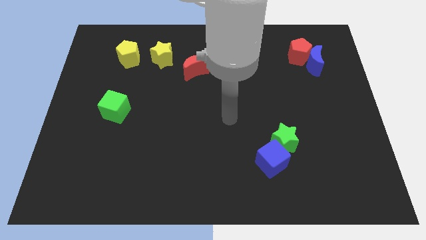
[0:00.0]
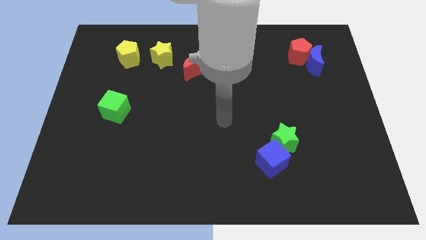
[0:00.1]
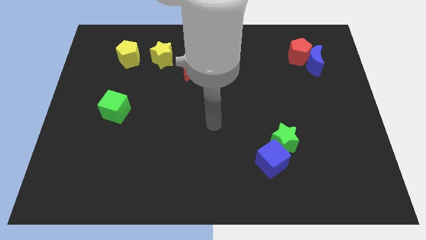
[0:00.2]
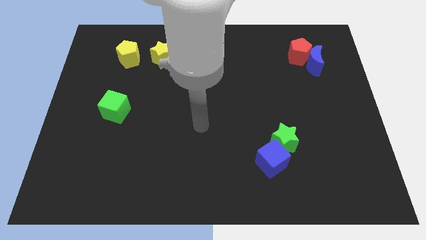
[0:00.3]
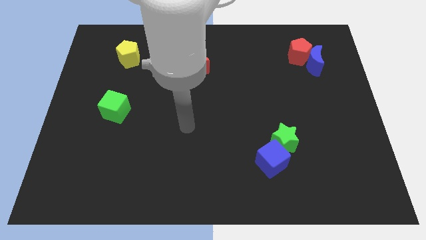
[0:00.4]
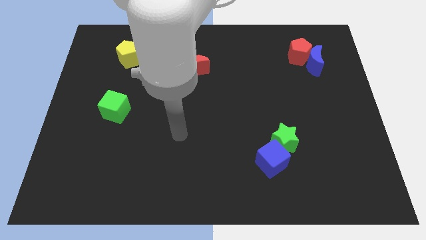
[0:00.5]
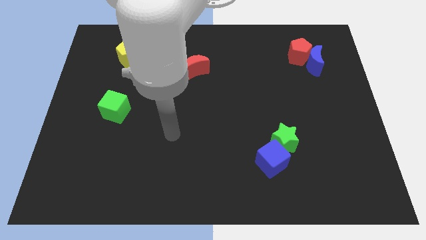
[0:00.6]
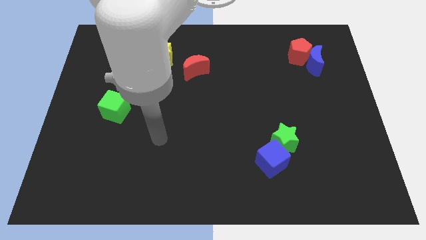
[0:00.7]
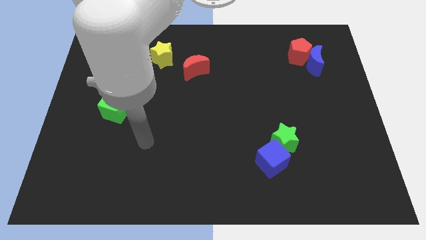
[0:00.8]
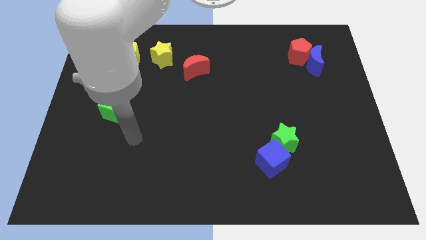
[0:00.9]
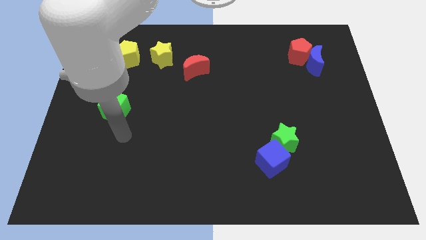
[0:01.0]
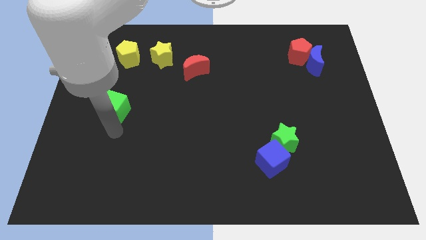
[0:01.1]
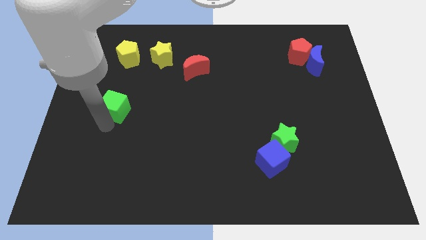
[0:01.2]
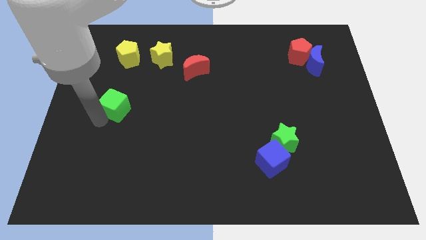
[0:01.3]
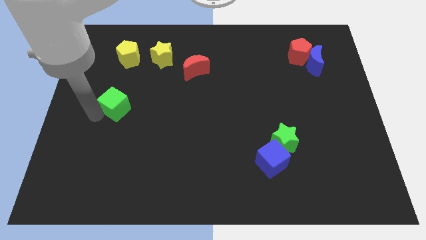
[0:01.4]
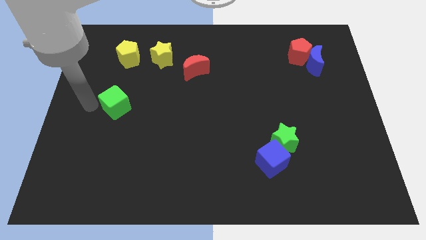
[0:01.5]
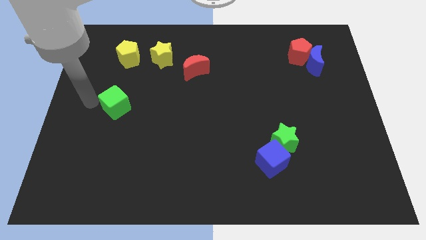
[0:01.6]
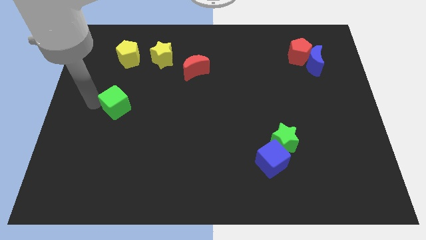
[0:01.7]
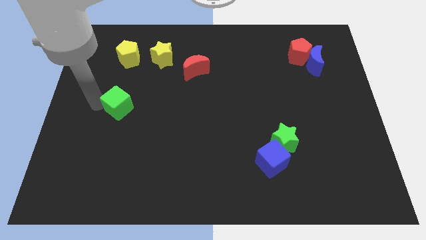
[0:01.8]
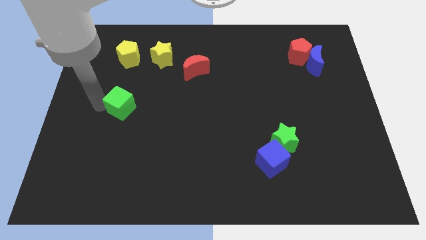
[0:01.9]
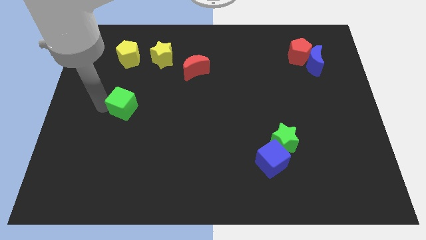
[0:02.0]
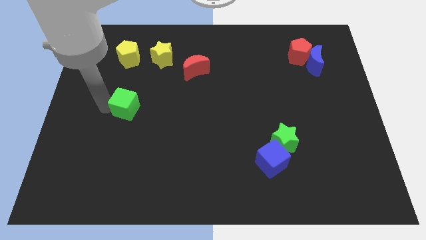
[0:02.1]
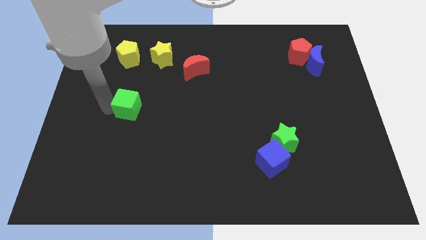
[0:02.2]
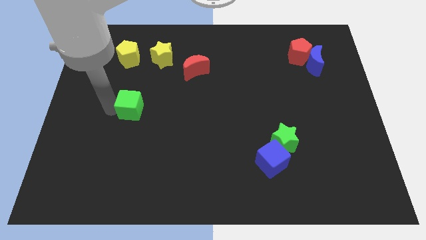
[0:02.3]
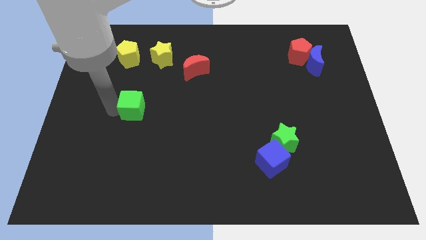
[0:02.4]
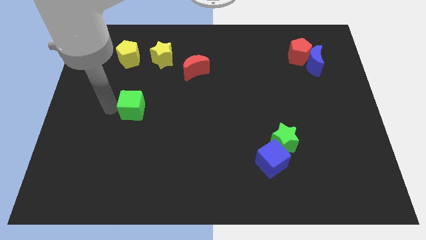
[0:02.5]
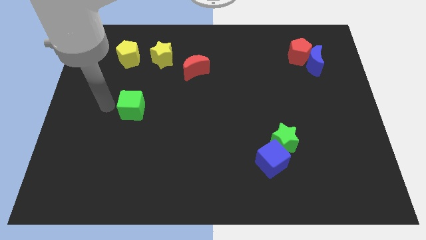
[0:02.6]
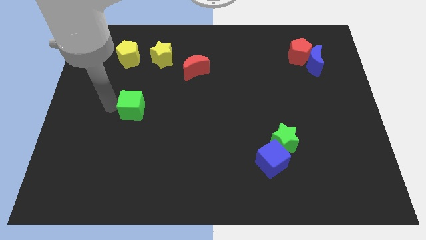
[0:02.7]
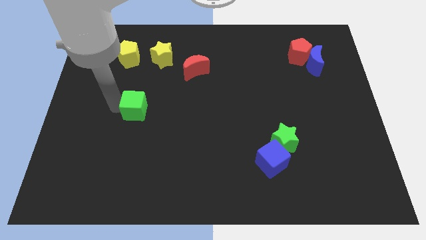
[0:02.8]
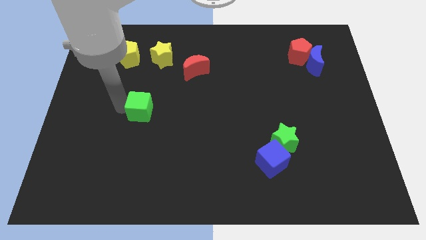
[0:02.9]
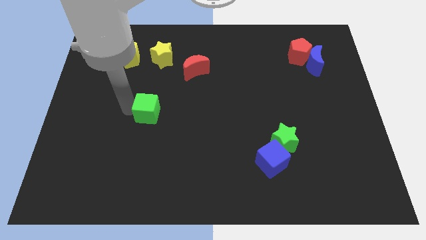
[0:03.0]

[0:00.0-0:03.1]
push the green cube a little bit to the right

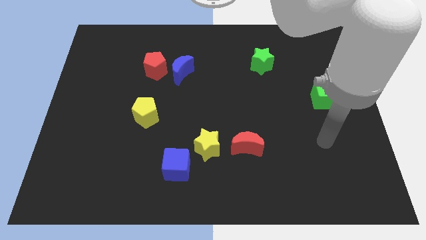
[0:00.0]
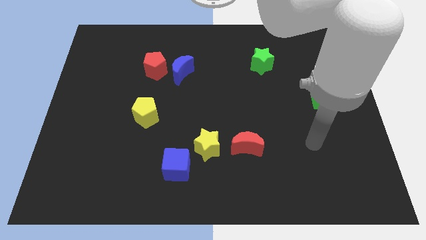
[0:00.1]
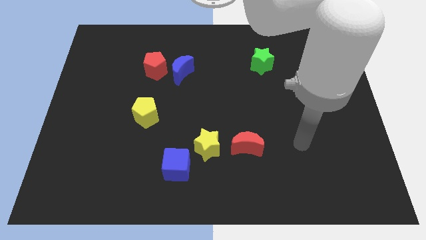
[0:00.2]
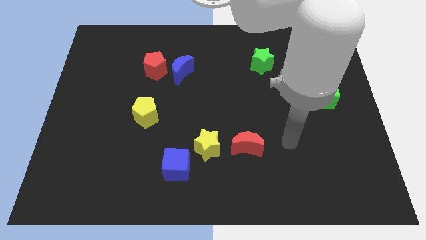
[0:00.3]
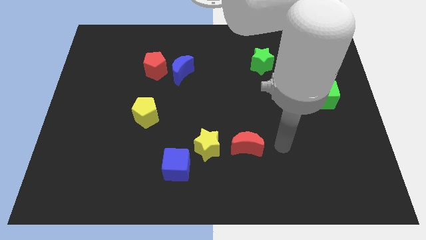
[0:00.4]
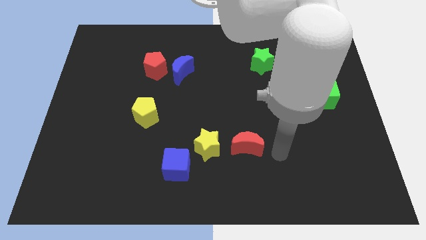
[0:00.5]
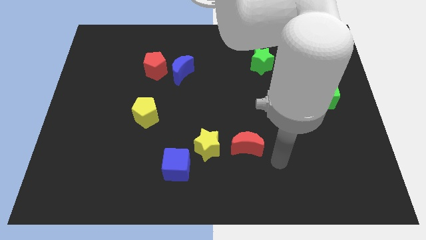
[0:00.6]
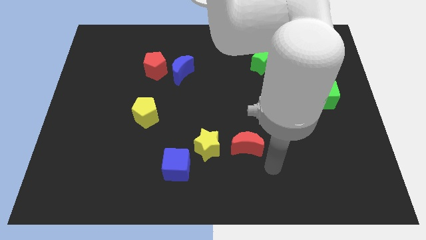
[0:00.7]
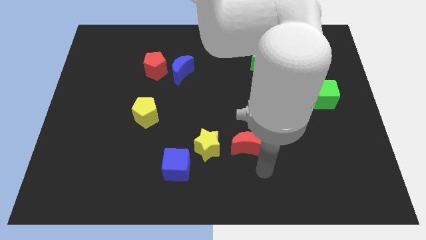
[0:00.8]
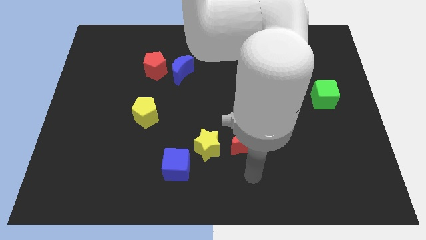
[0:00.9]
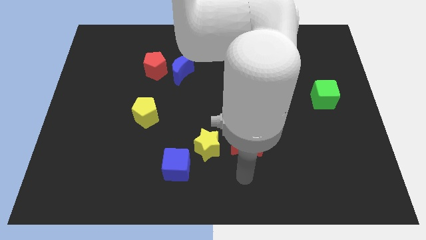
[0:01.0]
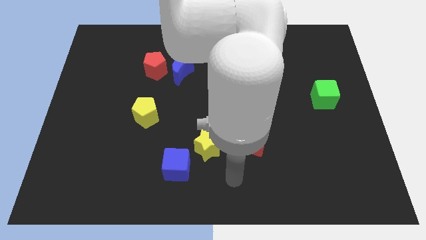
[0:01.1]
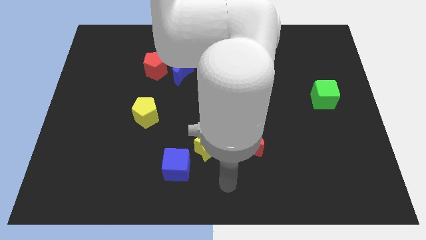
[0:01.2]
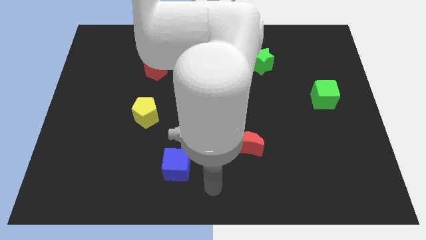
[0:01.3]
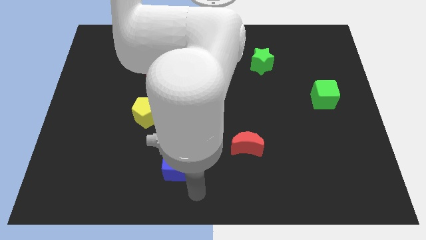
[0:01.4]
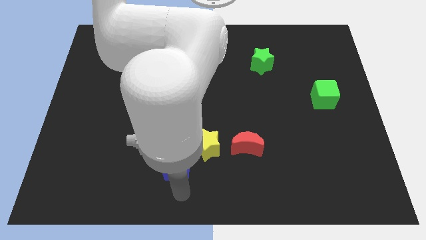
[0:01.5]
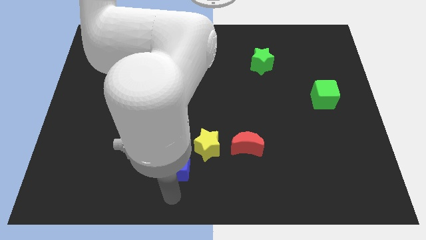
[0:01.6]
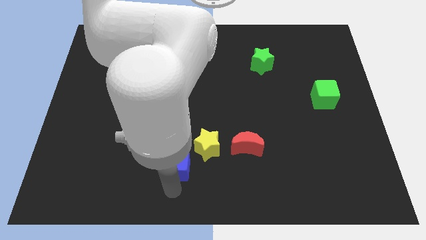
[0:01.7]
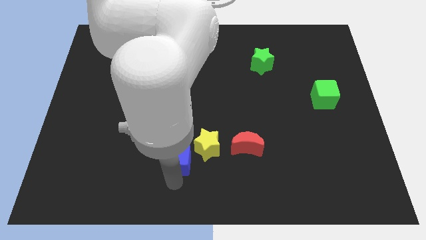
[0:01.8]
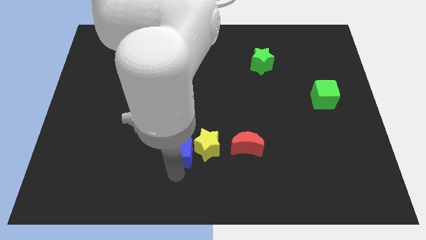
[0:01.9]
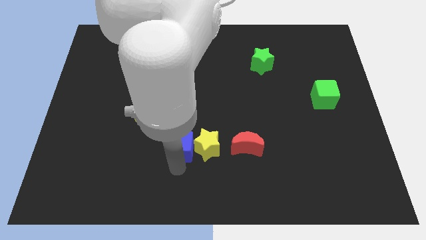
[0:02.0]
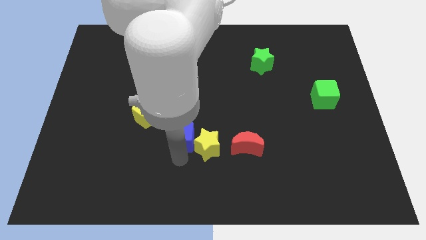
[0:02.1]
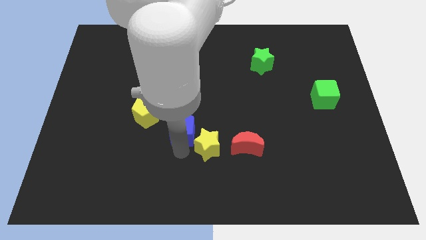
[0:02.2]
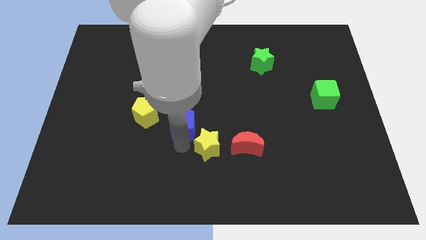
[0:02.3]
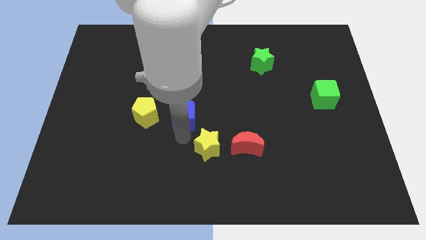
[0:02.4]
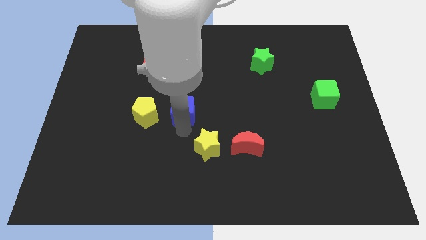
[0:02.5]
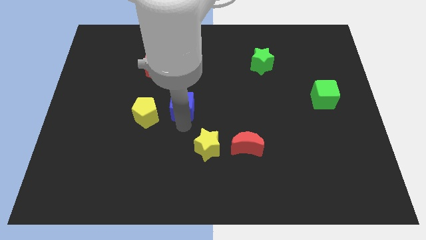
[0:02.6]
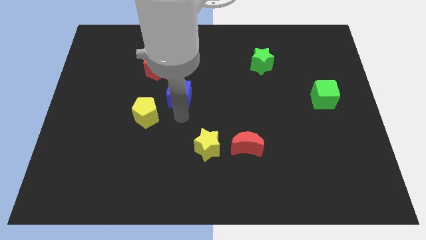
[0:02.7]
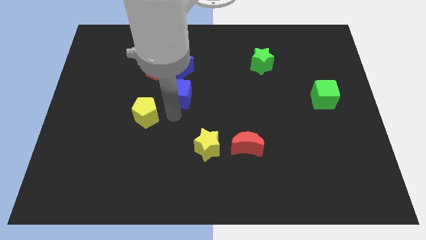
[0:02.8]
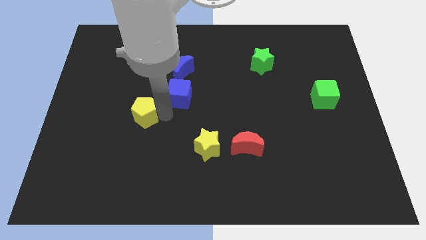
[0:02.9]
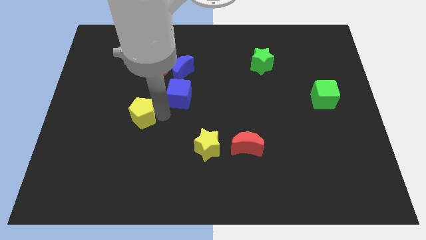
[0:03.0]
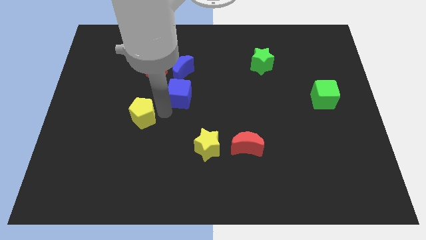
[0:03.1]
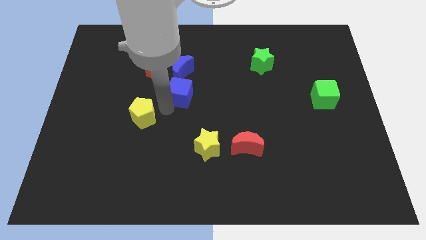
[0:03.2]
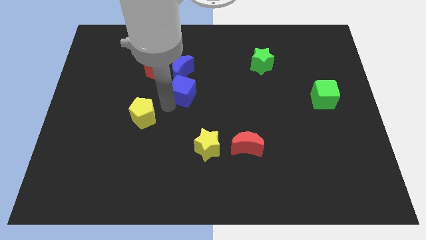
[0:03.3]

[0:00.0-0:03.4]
push the blue cube up

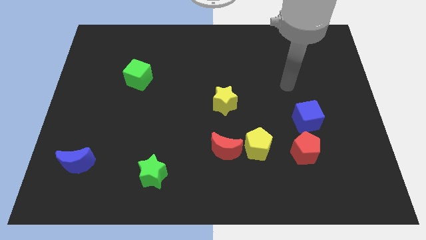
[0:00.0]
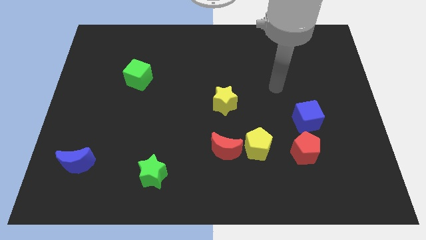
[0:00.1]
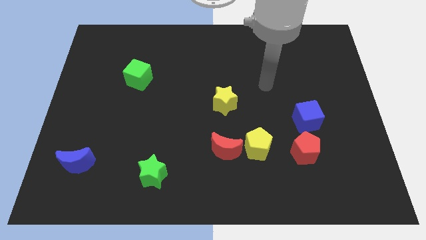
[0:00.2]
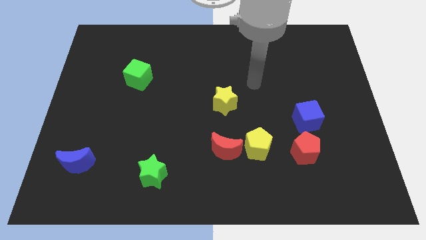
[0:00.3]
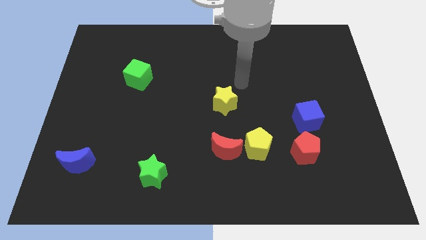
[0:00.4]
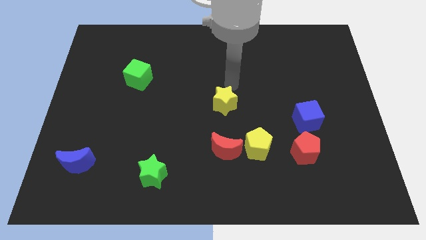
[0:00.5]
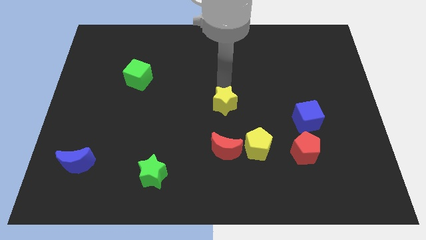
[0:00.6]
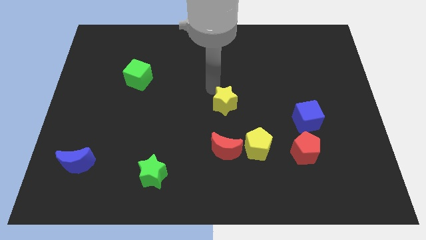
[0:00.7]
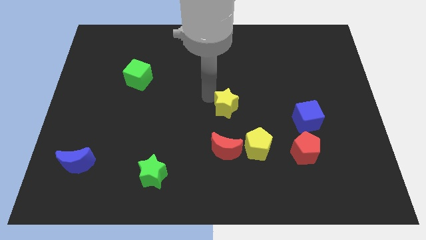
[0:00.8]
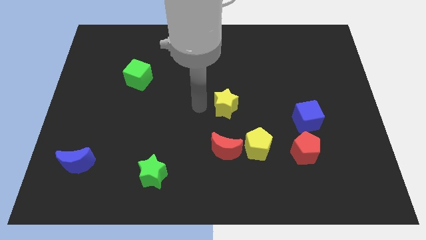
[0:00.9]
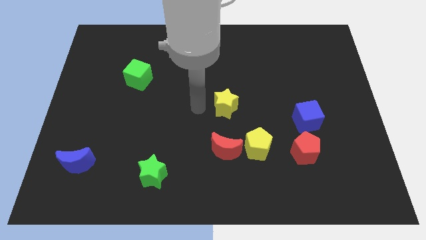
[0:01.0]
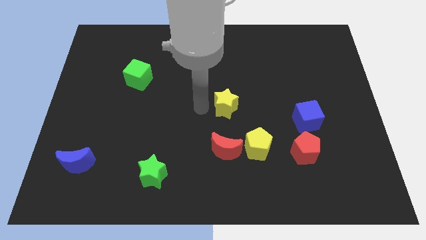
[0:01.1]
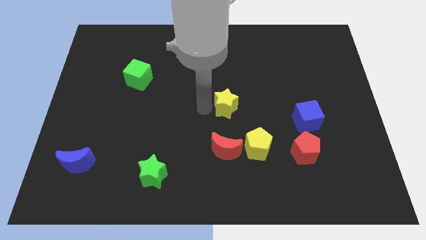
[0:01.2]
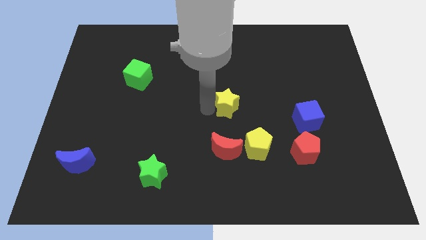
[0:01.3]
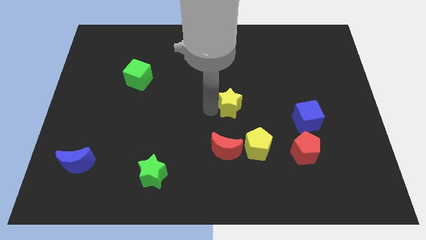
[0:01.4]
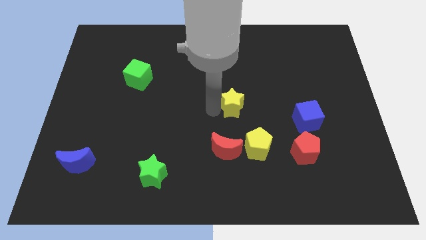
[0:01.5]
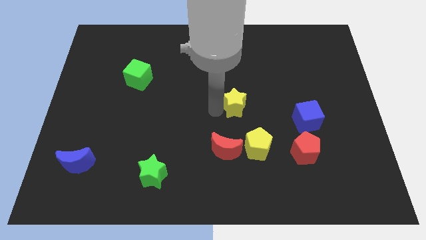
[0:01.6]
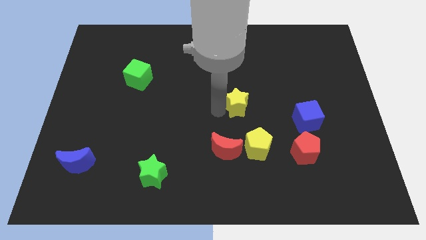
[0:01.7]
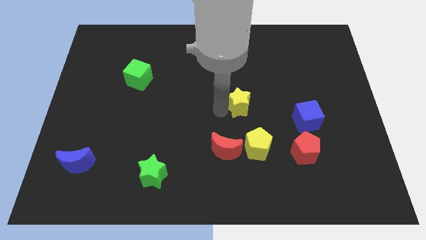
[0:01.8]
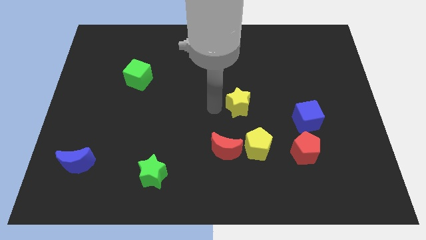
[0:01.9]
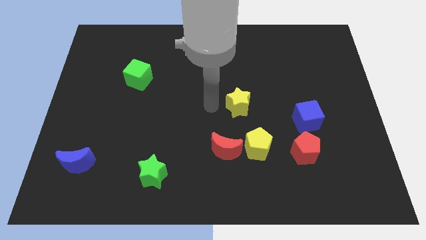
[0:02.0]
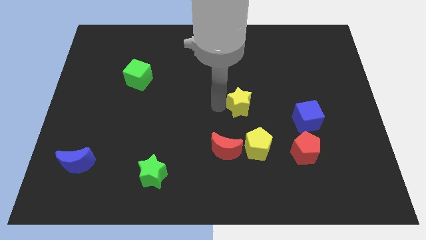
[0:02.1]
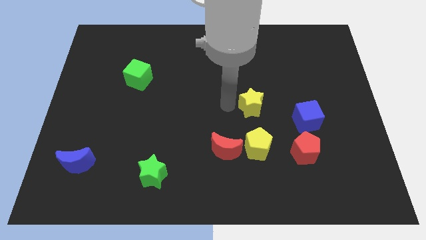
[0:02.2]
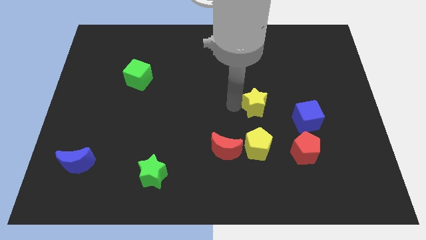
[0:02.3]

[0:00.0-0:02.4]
move the yellow star slightly right
